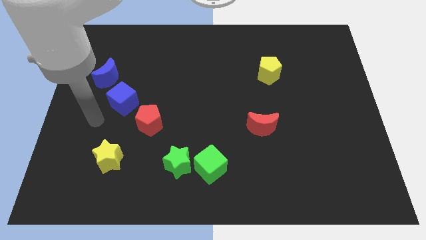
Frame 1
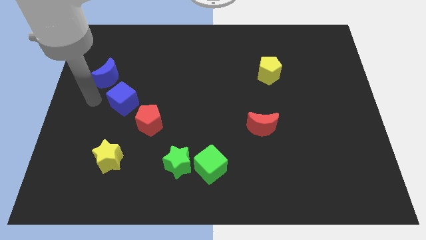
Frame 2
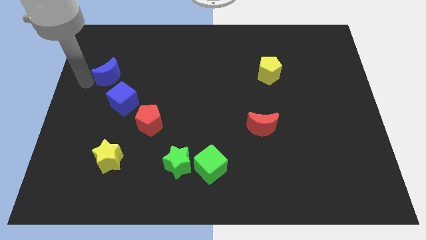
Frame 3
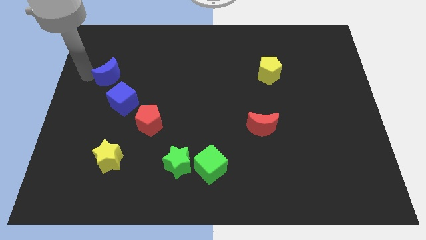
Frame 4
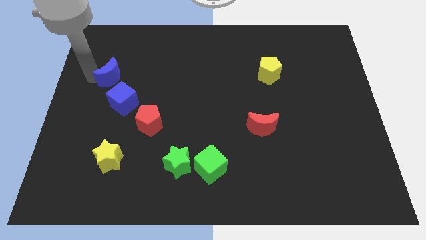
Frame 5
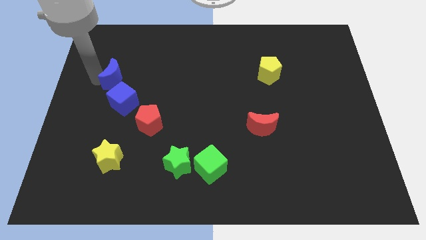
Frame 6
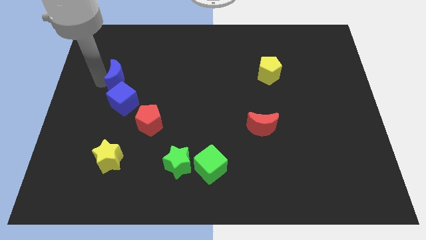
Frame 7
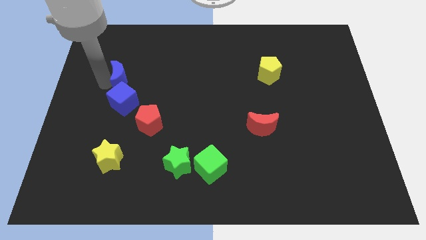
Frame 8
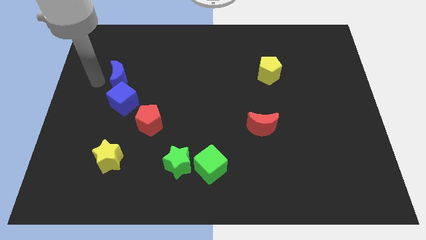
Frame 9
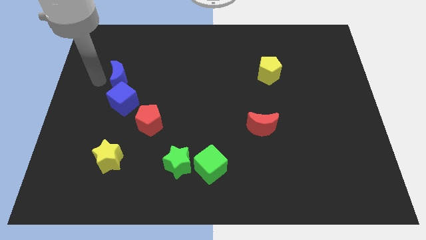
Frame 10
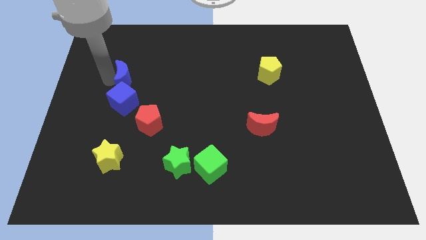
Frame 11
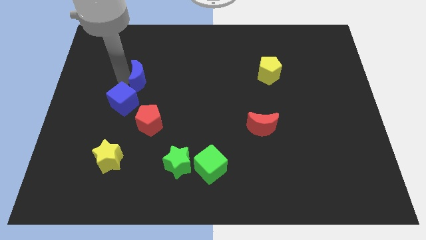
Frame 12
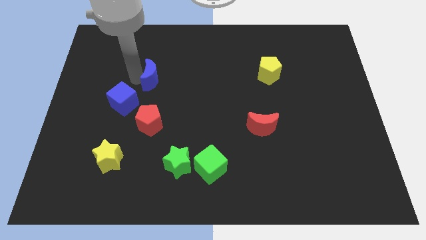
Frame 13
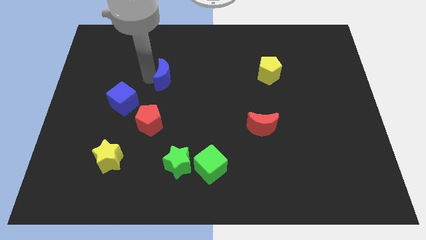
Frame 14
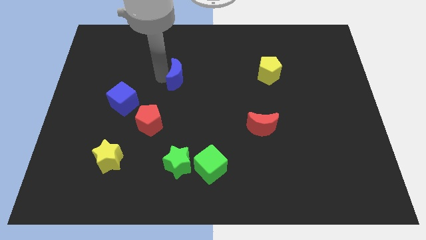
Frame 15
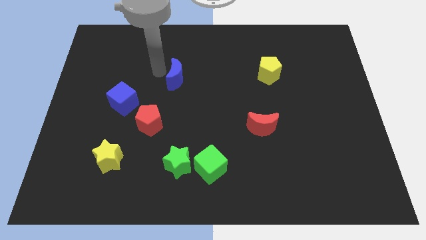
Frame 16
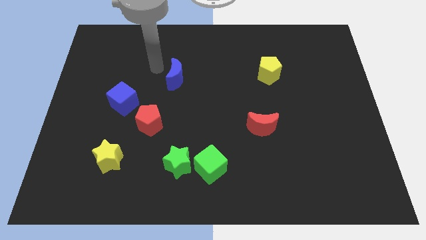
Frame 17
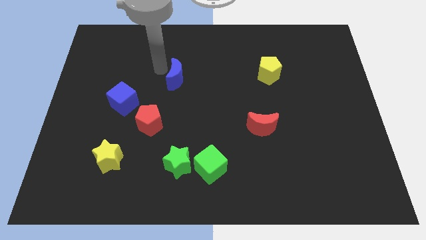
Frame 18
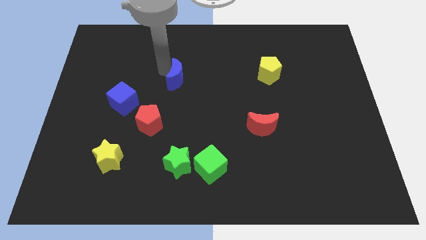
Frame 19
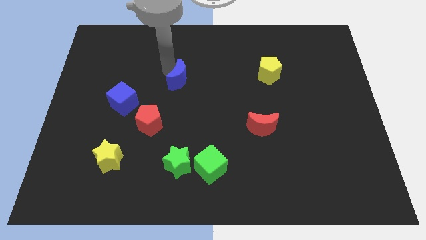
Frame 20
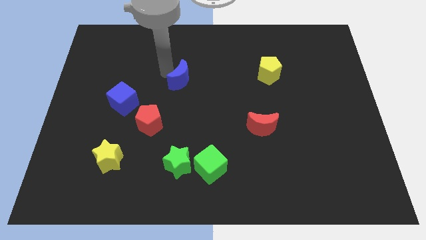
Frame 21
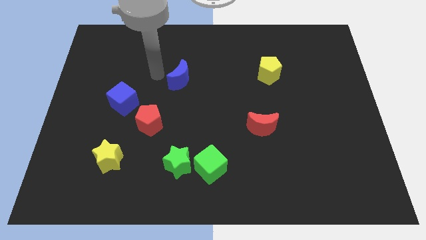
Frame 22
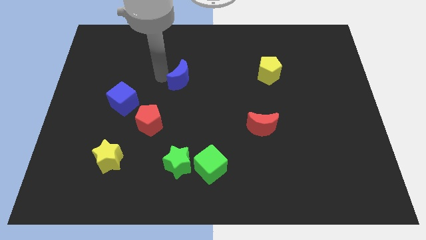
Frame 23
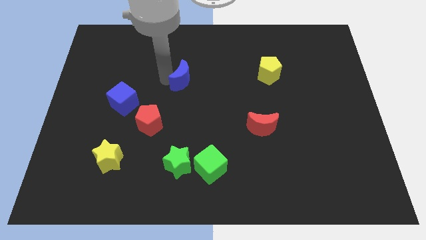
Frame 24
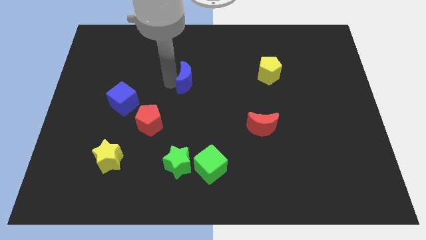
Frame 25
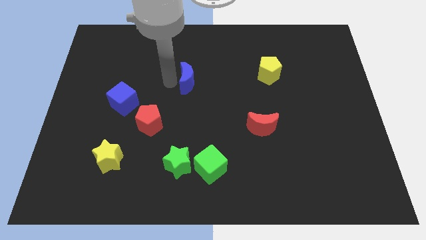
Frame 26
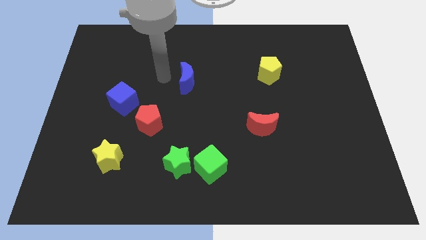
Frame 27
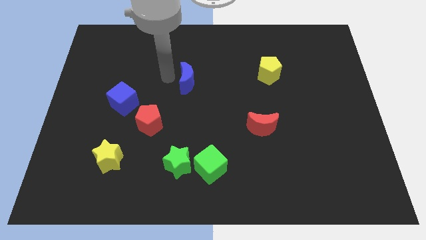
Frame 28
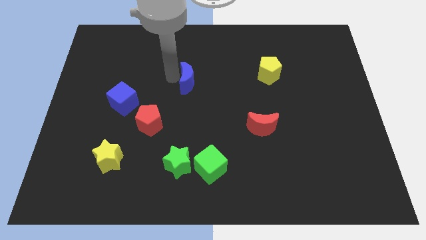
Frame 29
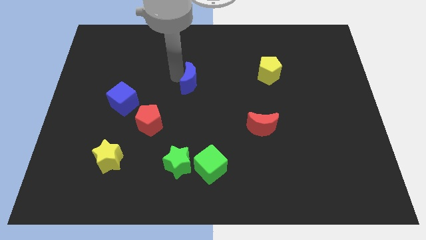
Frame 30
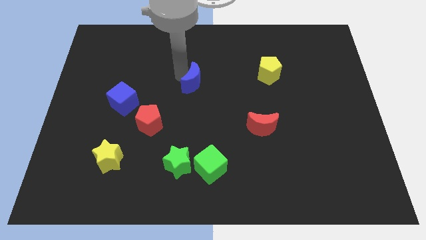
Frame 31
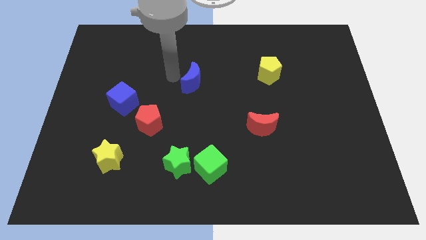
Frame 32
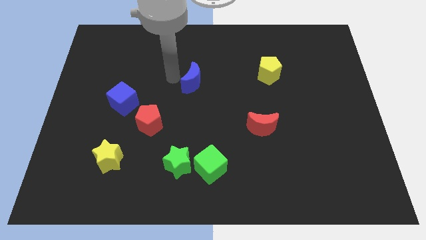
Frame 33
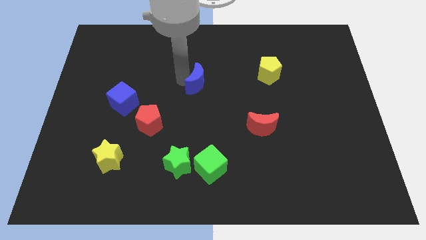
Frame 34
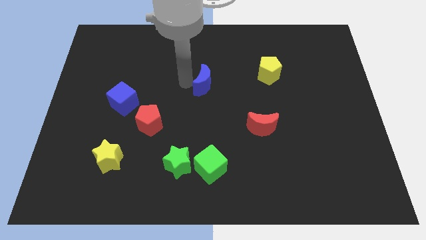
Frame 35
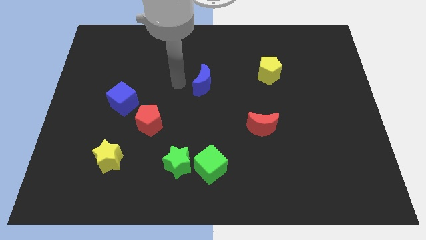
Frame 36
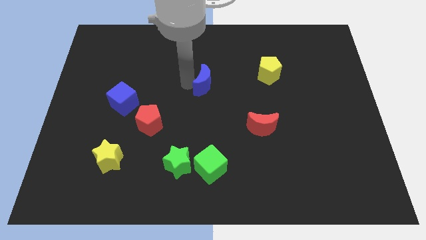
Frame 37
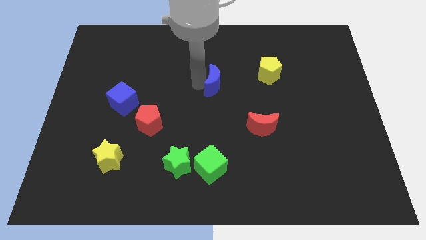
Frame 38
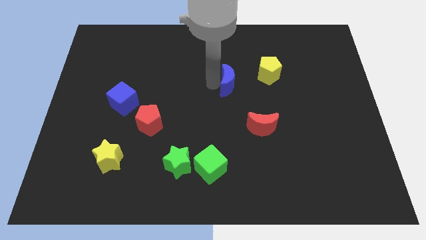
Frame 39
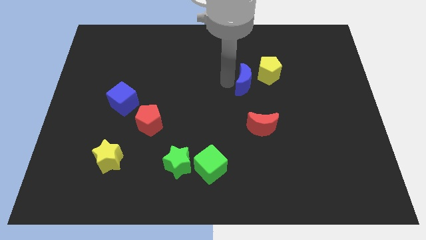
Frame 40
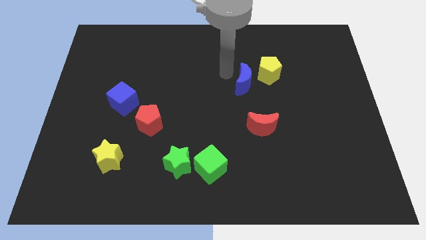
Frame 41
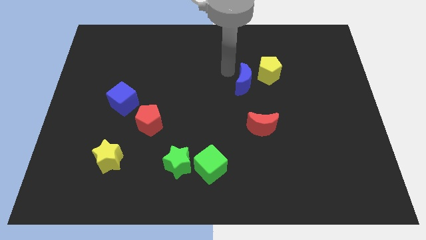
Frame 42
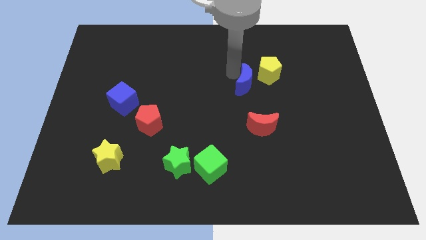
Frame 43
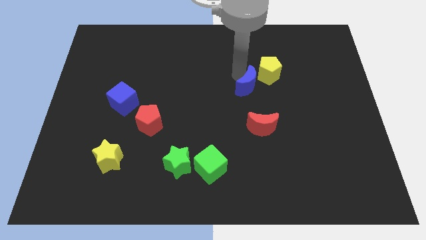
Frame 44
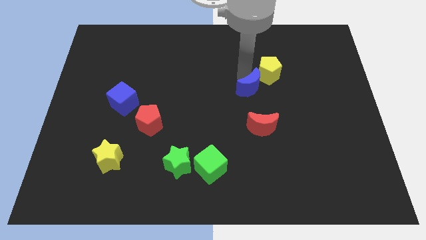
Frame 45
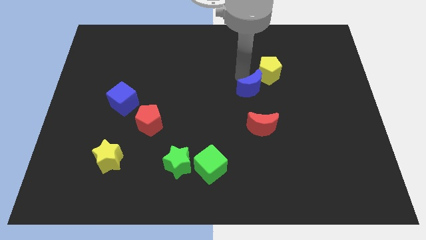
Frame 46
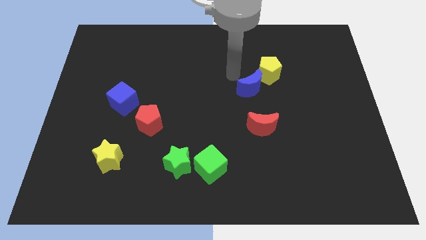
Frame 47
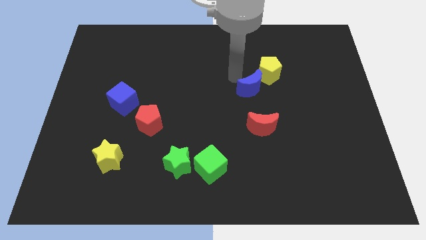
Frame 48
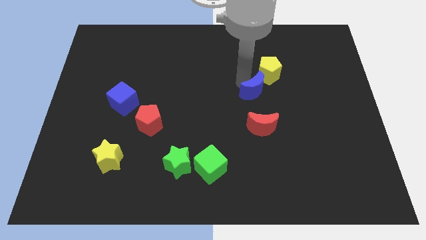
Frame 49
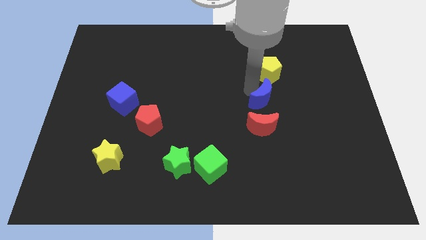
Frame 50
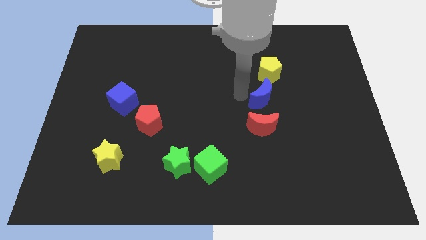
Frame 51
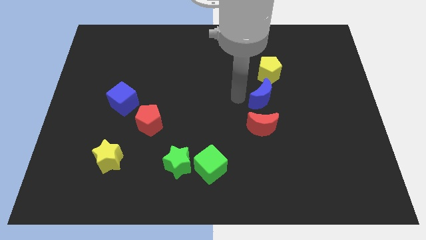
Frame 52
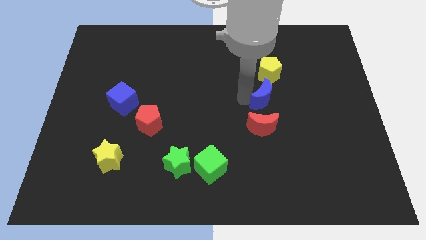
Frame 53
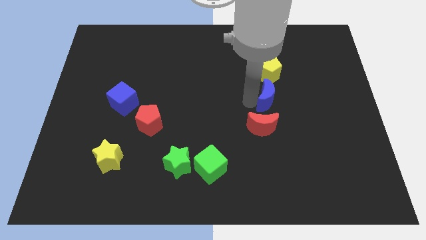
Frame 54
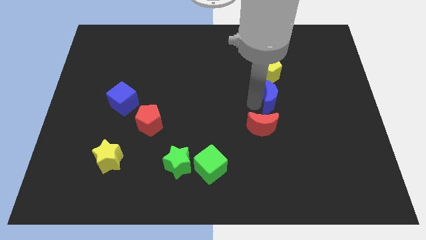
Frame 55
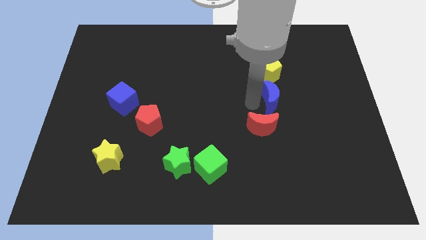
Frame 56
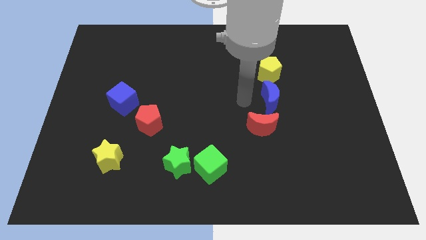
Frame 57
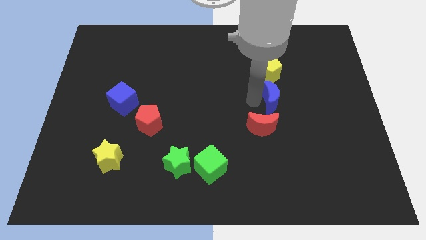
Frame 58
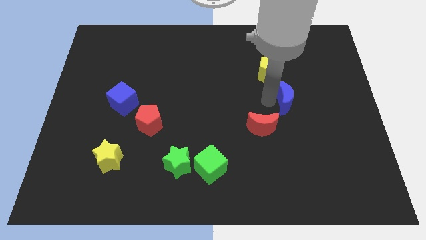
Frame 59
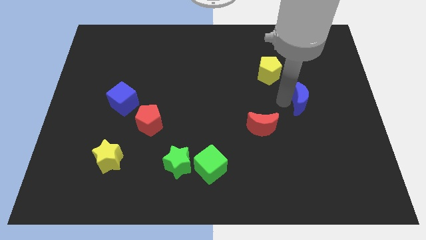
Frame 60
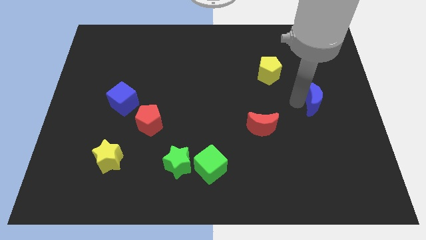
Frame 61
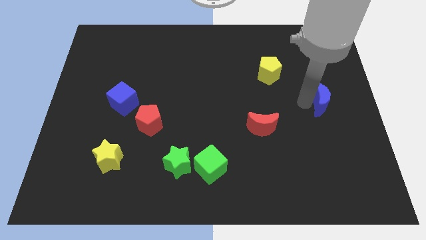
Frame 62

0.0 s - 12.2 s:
slide the blue moon to the right side of the board
